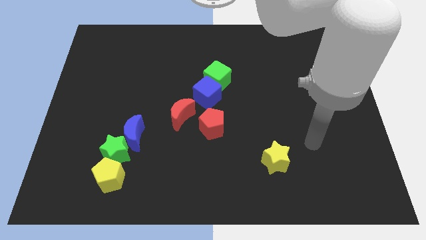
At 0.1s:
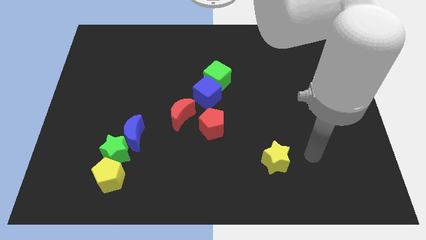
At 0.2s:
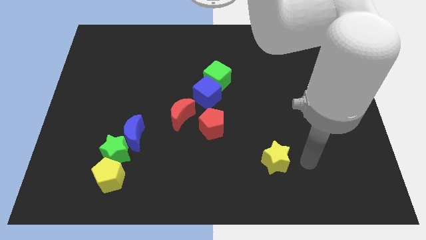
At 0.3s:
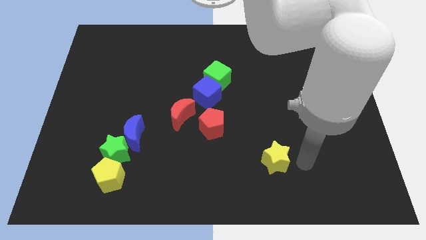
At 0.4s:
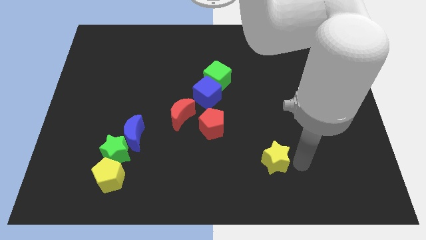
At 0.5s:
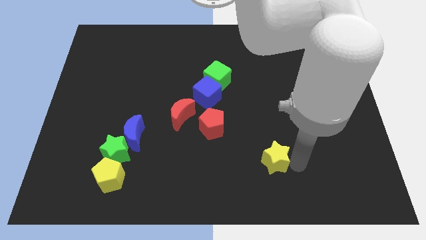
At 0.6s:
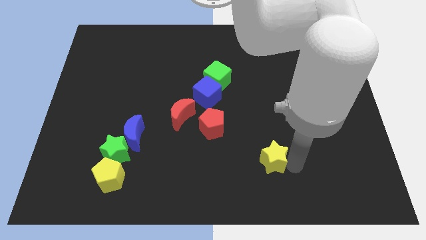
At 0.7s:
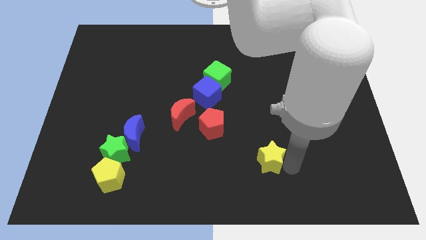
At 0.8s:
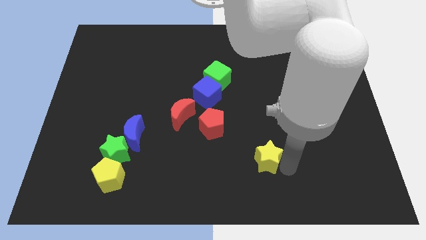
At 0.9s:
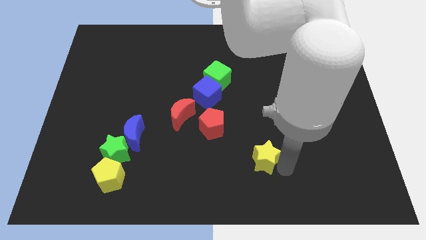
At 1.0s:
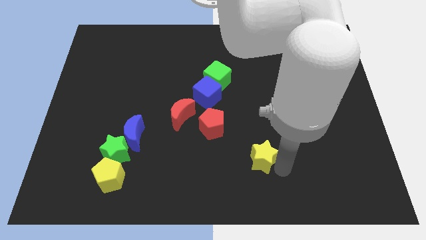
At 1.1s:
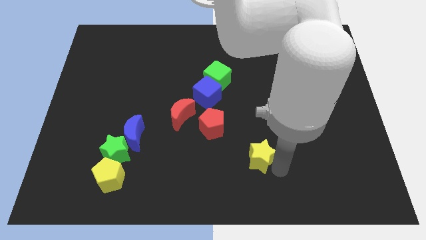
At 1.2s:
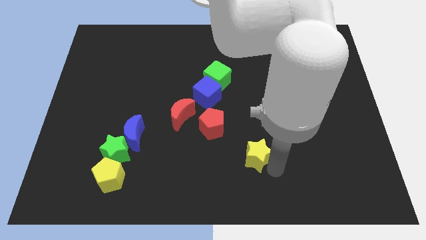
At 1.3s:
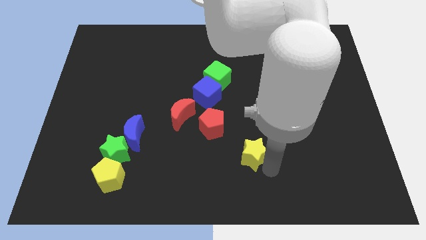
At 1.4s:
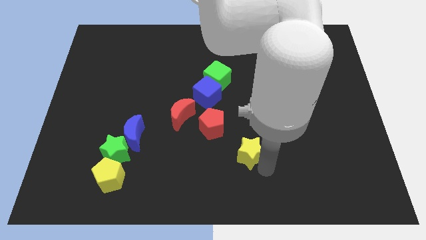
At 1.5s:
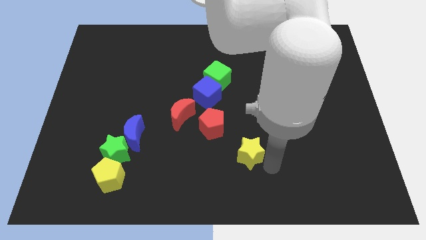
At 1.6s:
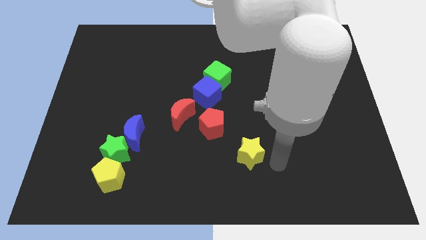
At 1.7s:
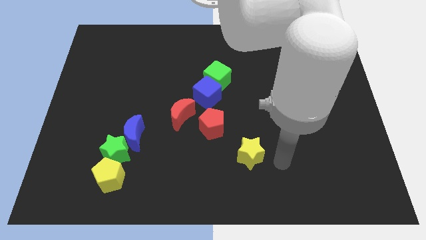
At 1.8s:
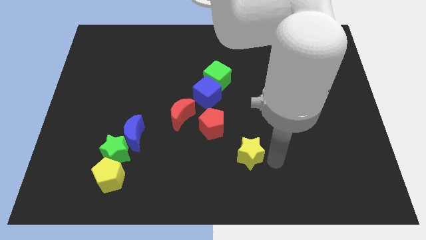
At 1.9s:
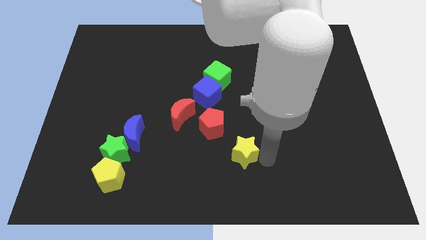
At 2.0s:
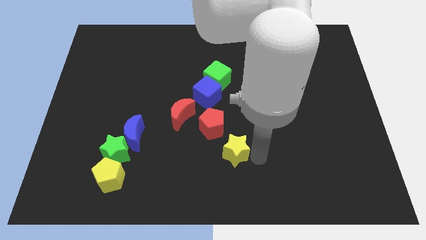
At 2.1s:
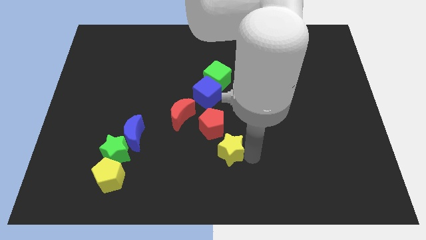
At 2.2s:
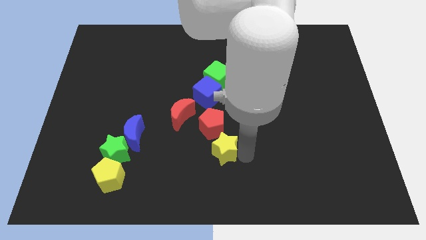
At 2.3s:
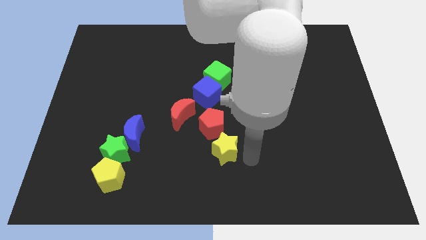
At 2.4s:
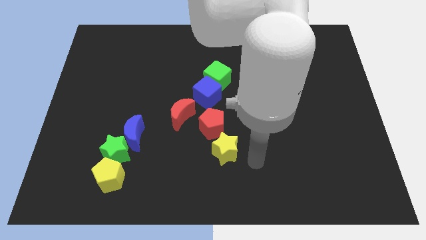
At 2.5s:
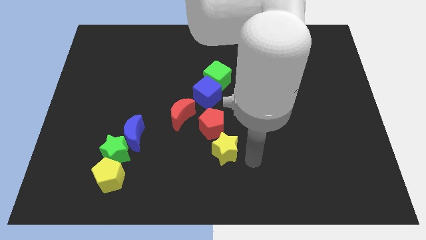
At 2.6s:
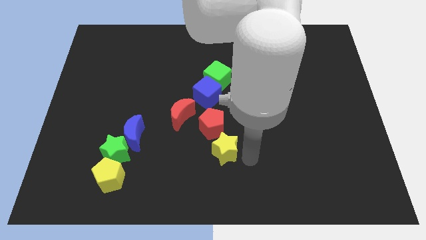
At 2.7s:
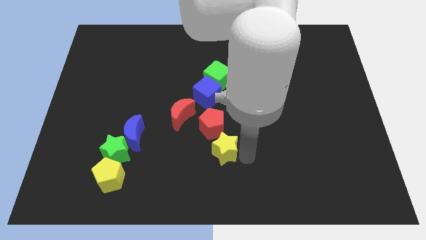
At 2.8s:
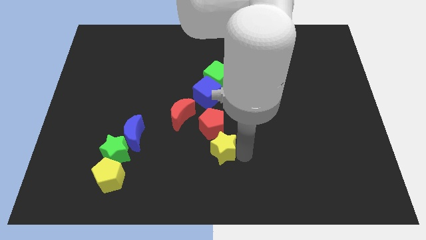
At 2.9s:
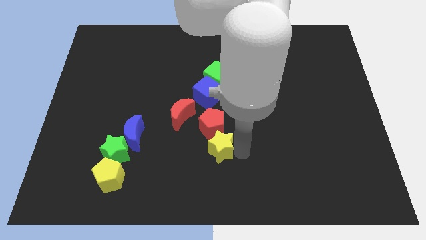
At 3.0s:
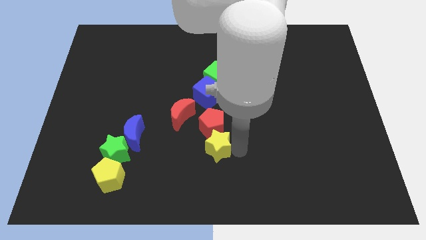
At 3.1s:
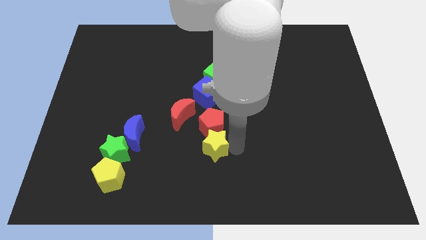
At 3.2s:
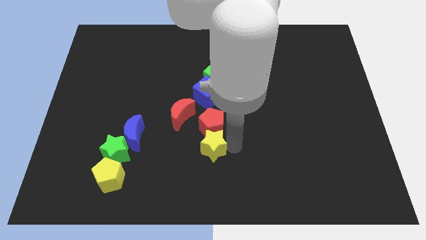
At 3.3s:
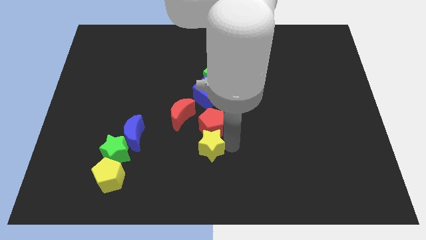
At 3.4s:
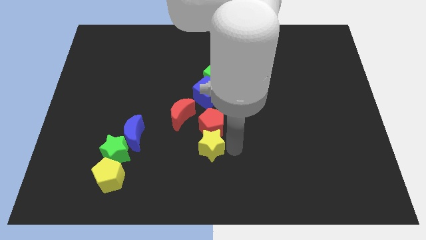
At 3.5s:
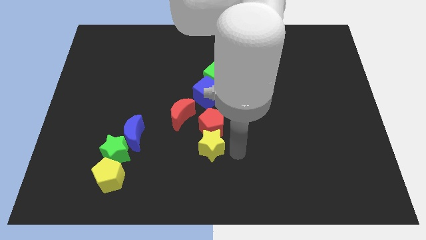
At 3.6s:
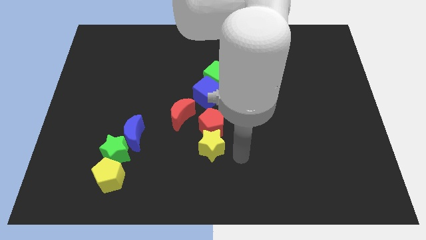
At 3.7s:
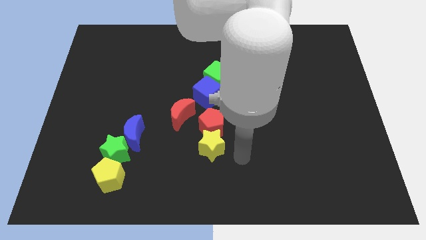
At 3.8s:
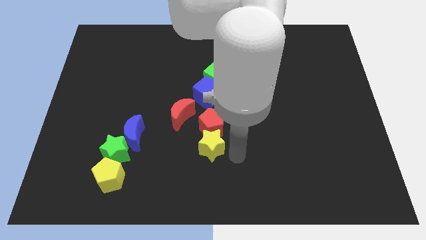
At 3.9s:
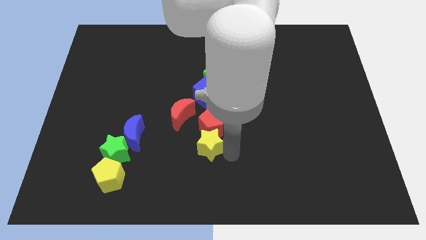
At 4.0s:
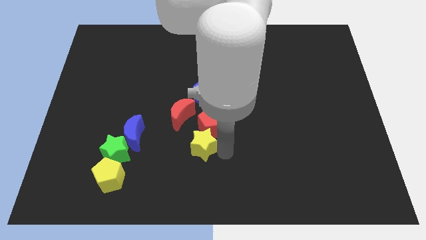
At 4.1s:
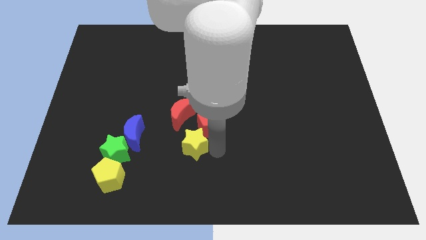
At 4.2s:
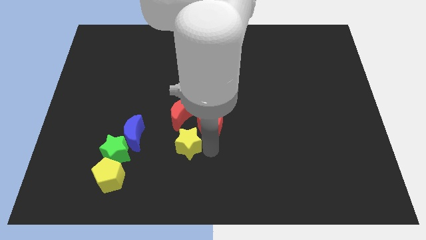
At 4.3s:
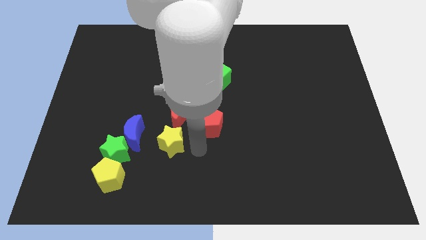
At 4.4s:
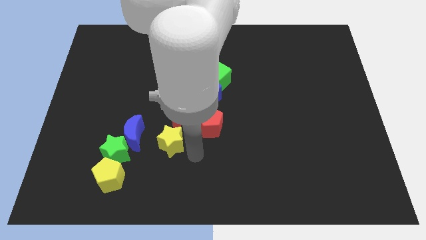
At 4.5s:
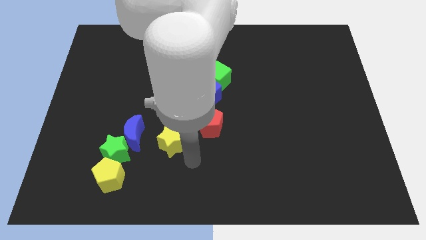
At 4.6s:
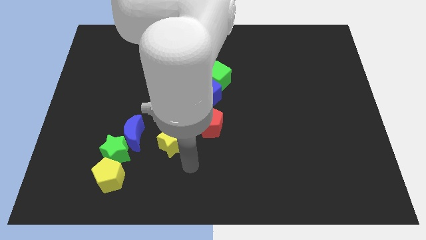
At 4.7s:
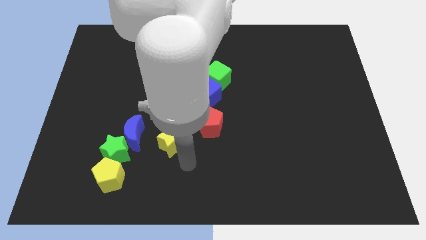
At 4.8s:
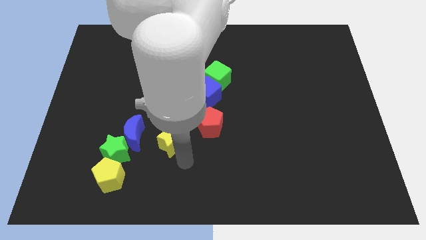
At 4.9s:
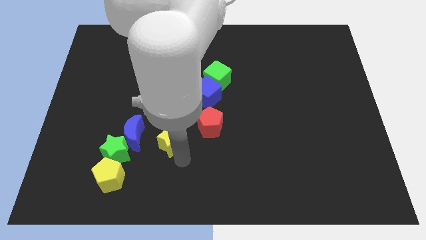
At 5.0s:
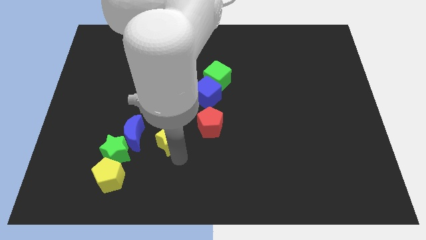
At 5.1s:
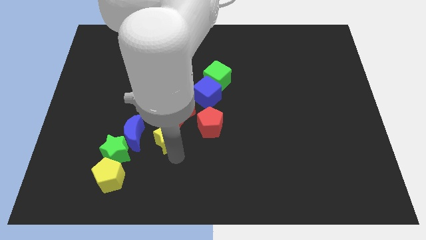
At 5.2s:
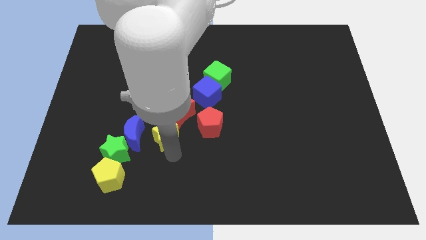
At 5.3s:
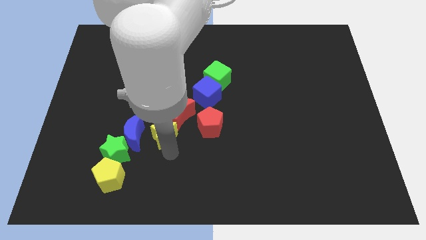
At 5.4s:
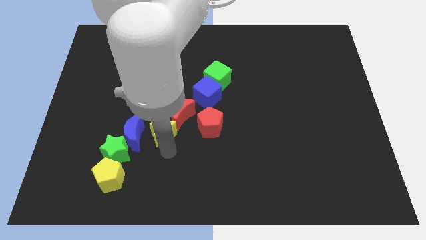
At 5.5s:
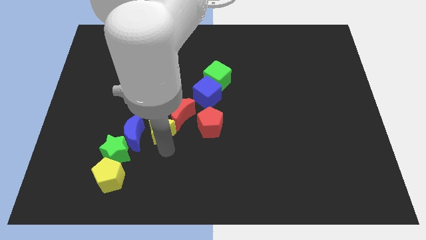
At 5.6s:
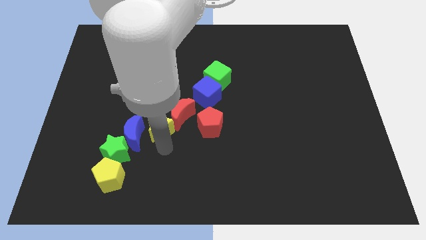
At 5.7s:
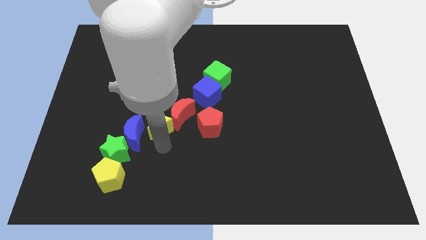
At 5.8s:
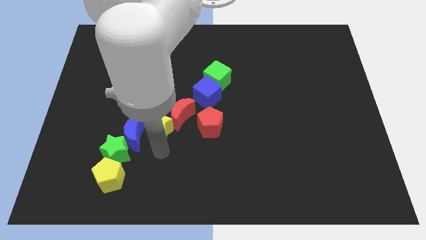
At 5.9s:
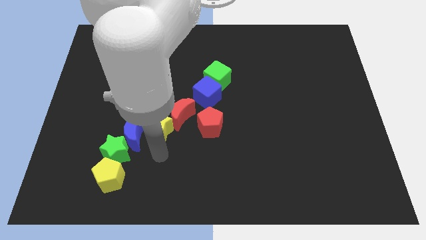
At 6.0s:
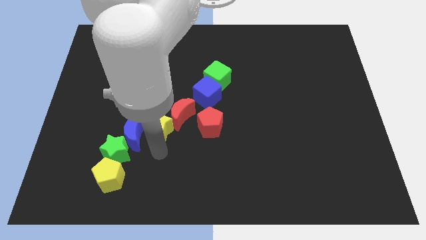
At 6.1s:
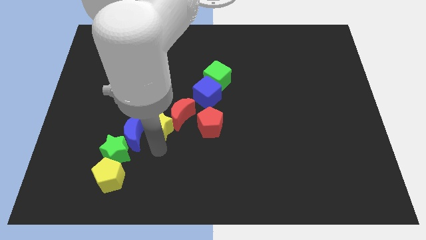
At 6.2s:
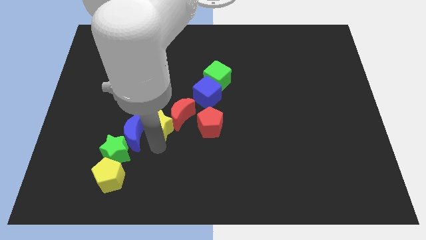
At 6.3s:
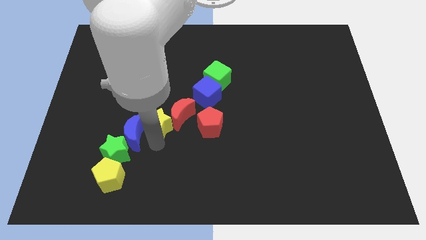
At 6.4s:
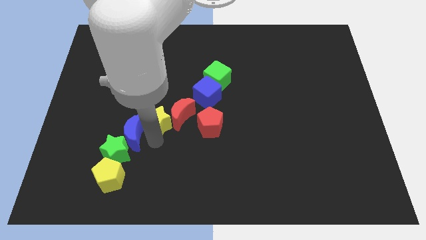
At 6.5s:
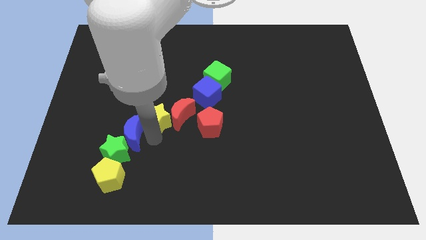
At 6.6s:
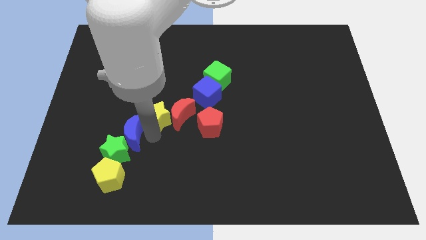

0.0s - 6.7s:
push the yellow star up and then to the left

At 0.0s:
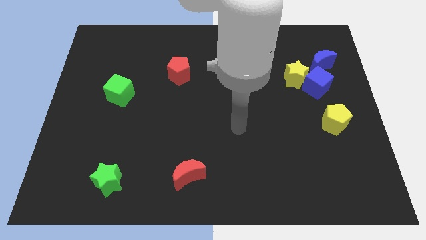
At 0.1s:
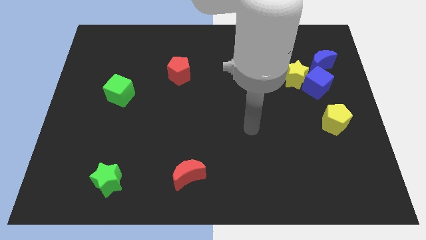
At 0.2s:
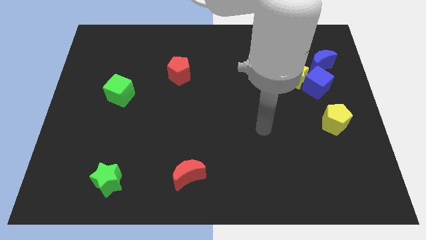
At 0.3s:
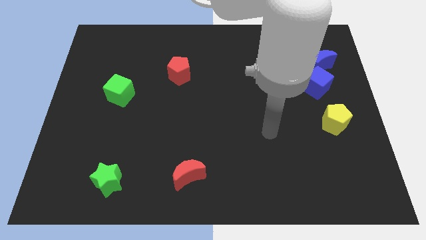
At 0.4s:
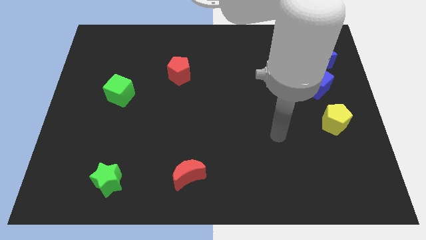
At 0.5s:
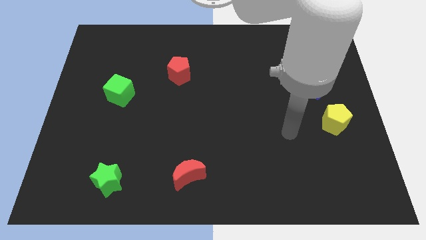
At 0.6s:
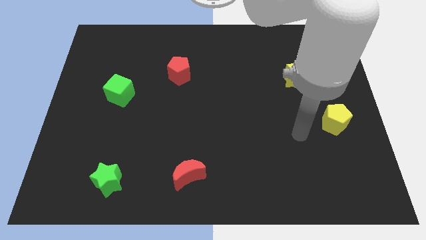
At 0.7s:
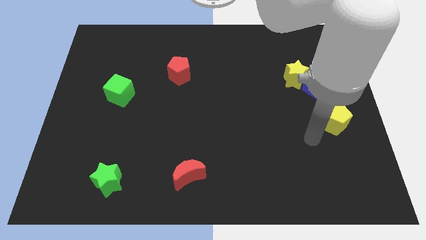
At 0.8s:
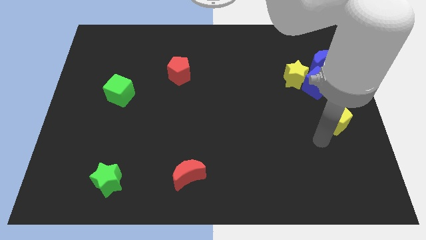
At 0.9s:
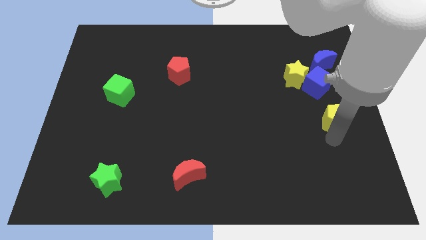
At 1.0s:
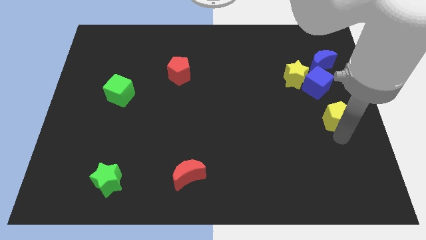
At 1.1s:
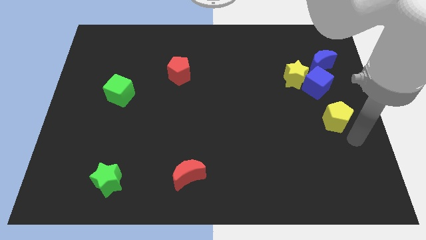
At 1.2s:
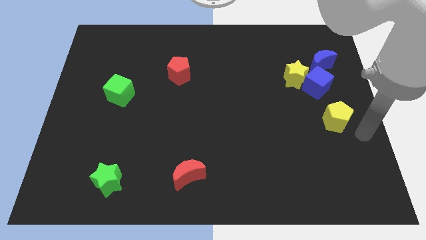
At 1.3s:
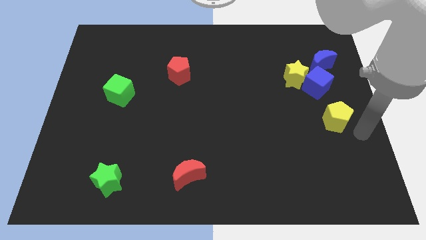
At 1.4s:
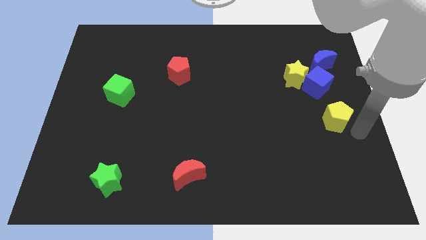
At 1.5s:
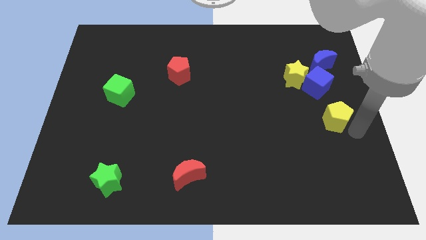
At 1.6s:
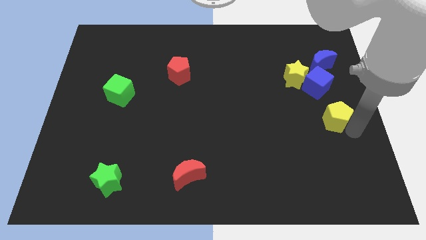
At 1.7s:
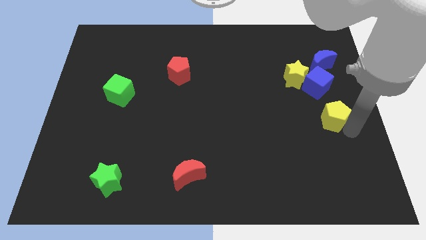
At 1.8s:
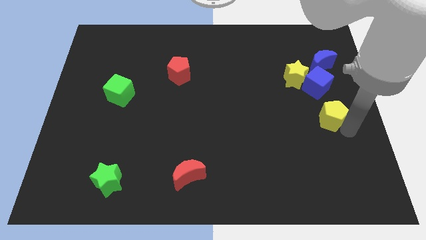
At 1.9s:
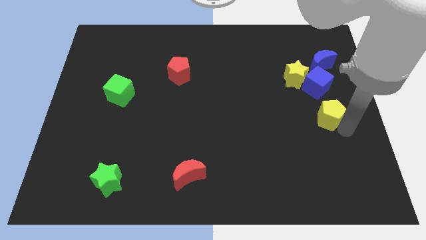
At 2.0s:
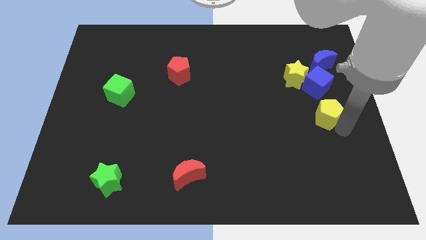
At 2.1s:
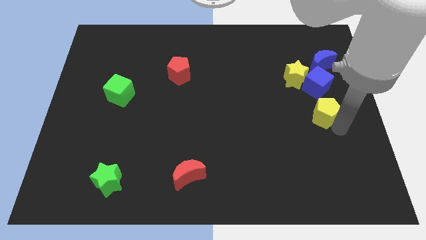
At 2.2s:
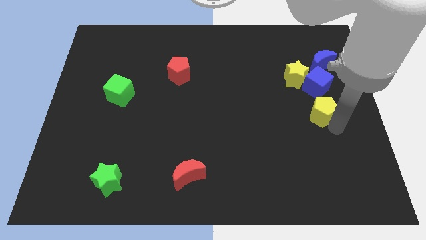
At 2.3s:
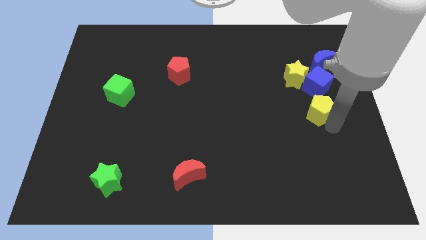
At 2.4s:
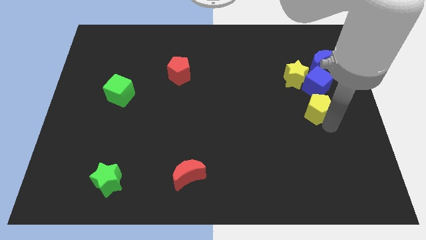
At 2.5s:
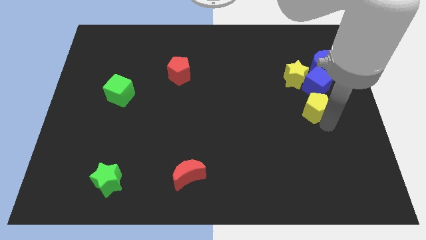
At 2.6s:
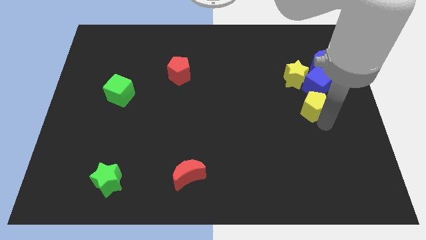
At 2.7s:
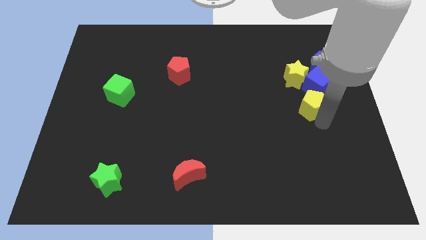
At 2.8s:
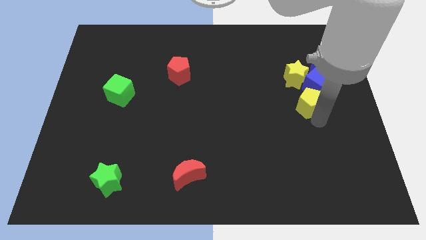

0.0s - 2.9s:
slightly push the yellow pentagon upwards and then to the left
